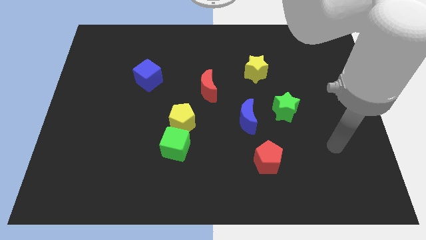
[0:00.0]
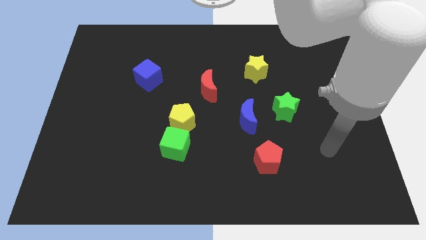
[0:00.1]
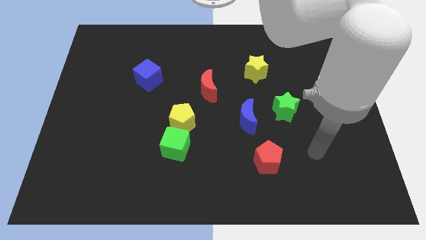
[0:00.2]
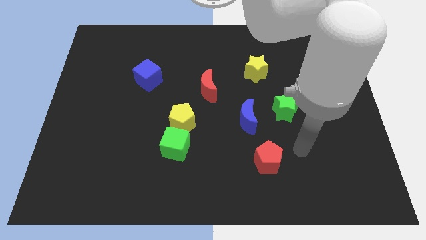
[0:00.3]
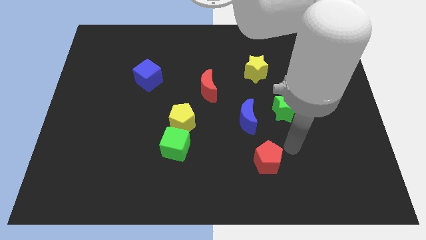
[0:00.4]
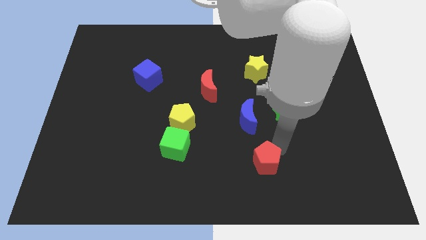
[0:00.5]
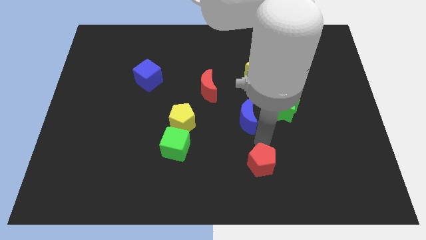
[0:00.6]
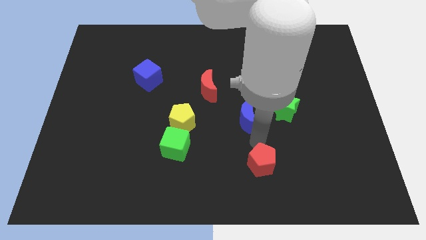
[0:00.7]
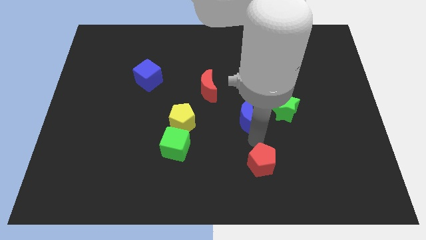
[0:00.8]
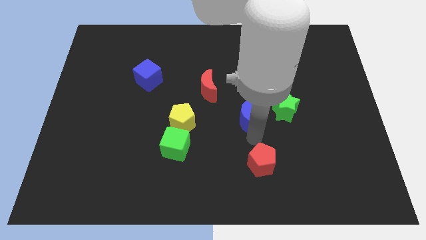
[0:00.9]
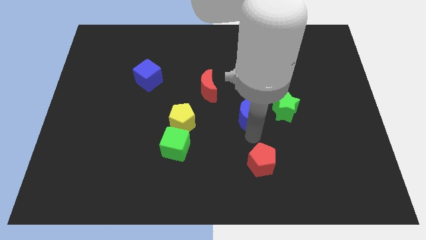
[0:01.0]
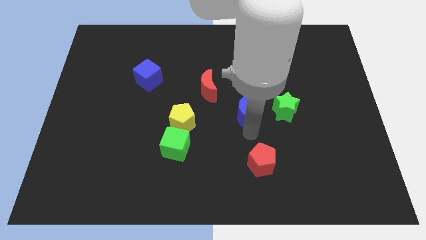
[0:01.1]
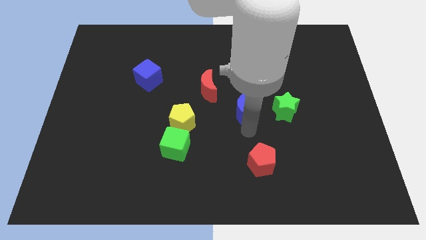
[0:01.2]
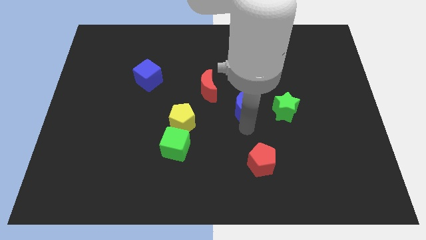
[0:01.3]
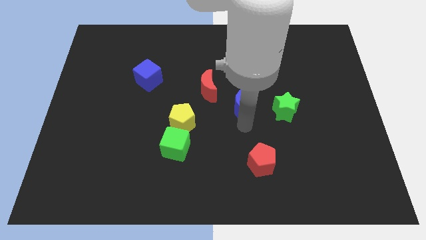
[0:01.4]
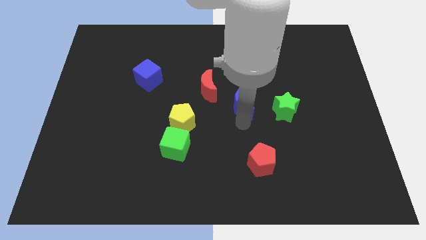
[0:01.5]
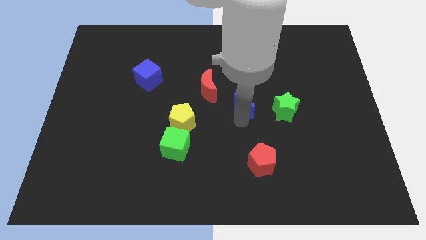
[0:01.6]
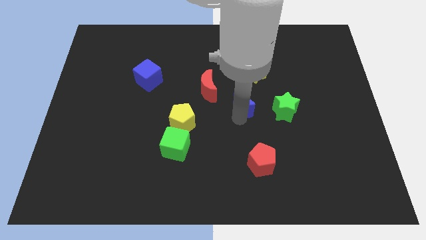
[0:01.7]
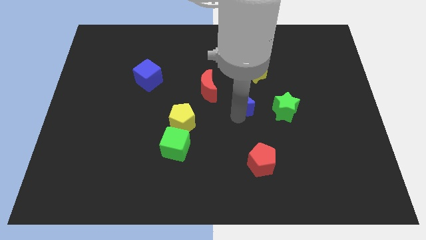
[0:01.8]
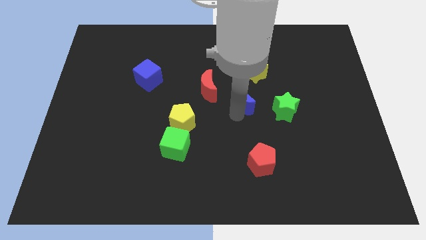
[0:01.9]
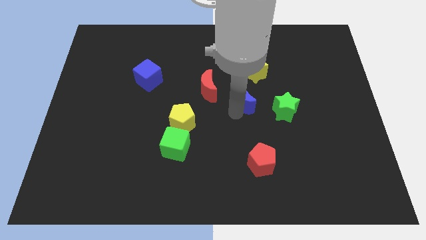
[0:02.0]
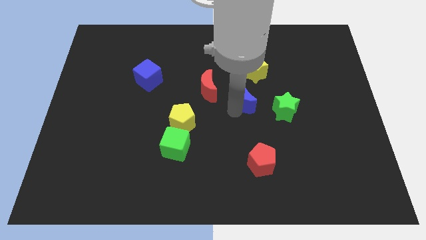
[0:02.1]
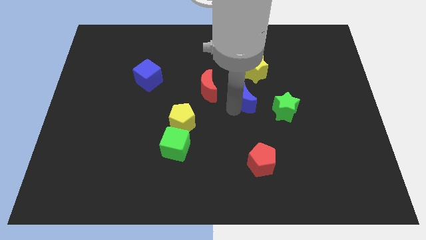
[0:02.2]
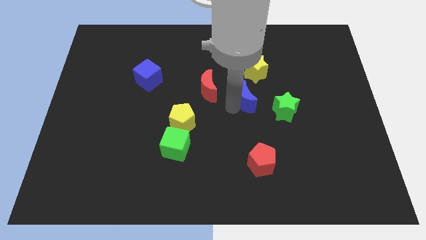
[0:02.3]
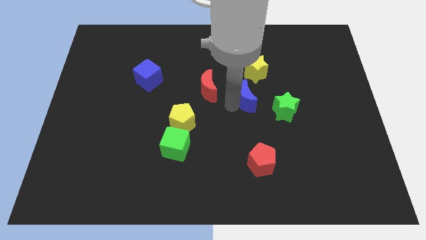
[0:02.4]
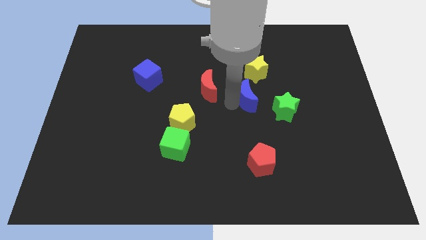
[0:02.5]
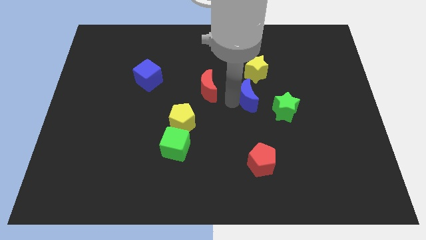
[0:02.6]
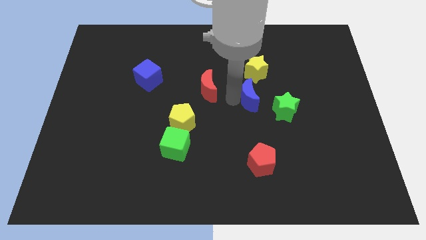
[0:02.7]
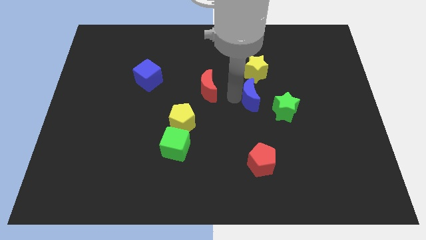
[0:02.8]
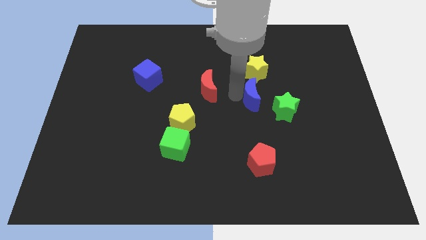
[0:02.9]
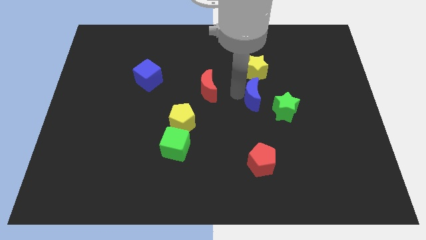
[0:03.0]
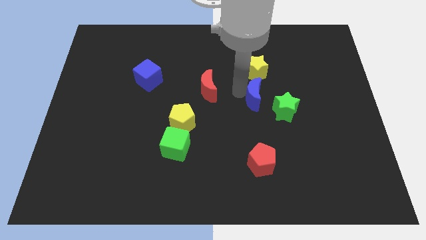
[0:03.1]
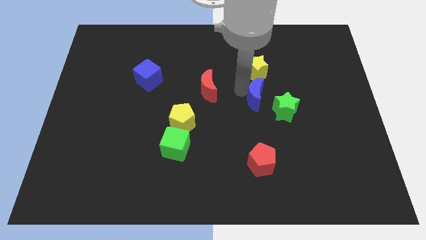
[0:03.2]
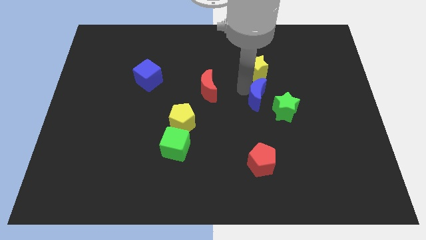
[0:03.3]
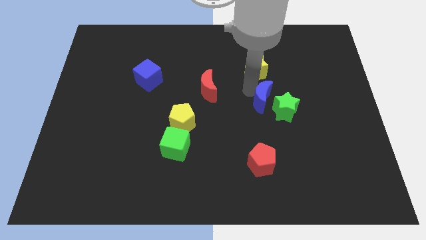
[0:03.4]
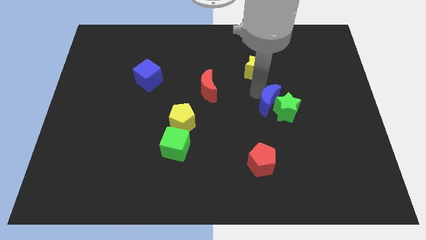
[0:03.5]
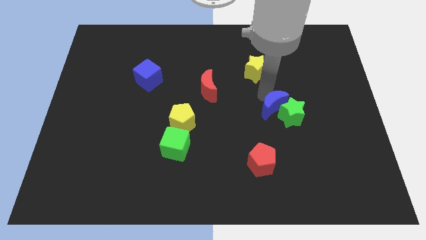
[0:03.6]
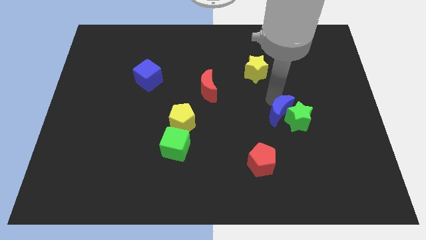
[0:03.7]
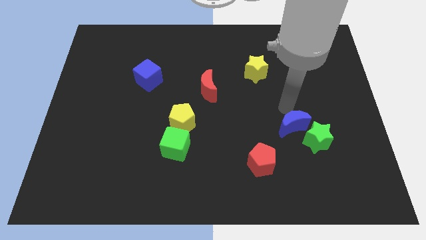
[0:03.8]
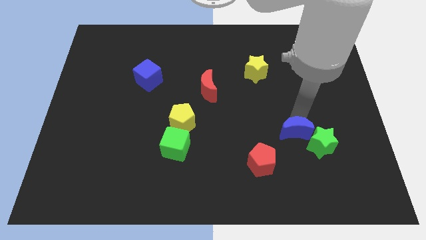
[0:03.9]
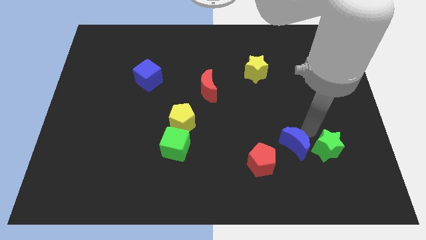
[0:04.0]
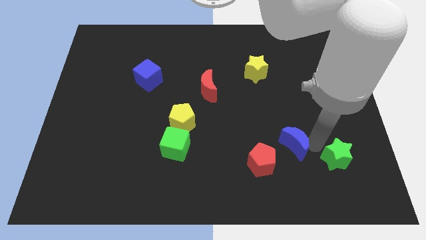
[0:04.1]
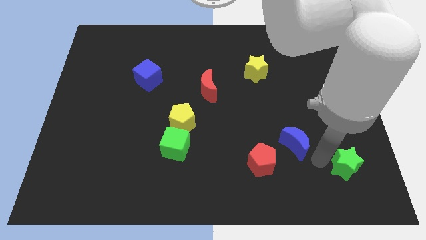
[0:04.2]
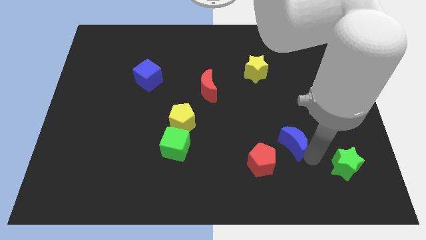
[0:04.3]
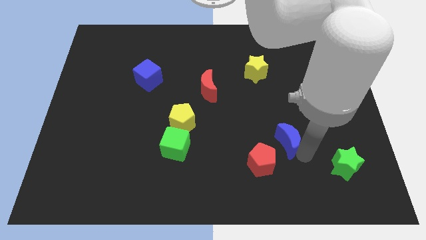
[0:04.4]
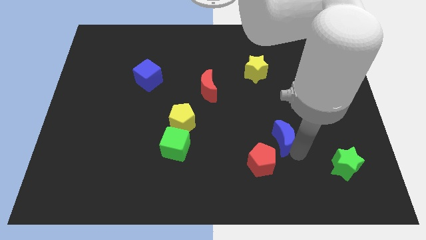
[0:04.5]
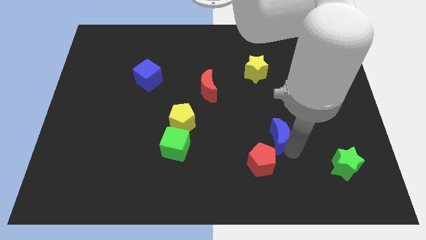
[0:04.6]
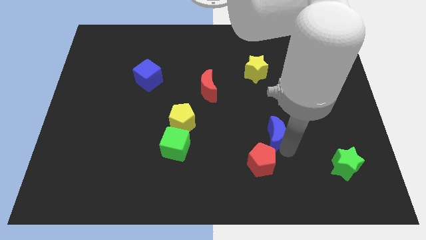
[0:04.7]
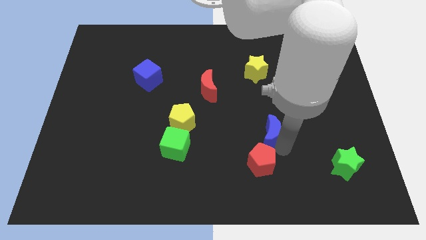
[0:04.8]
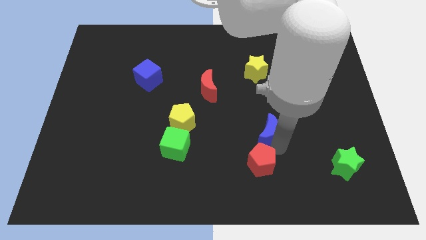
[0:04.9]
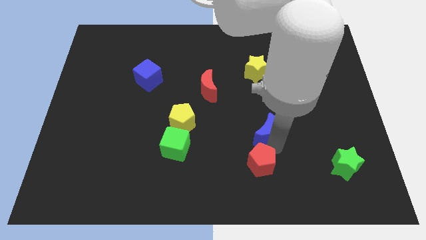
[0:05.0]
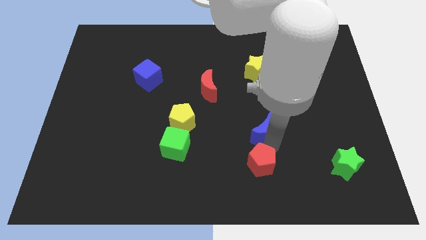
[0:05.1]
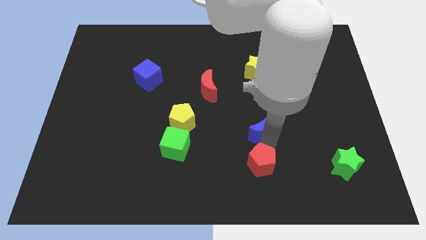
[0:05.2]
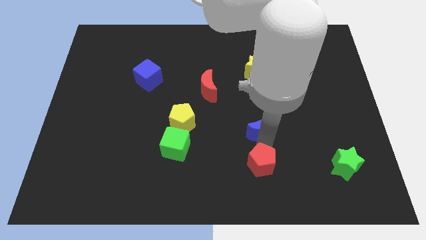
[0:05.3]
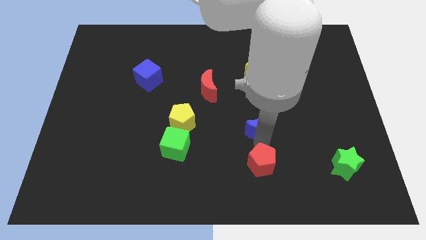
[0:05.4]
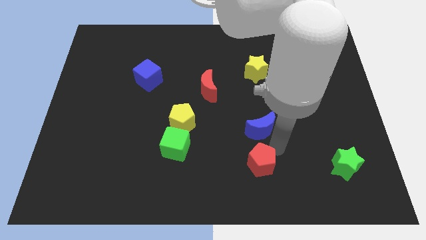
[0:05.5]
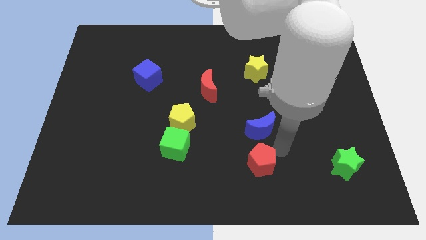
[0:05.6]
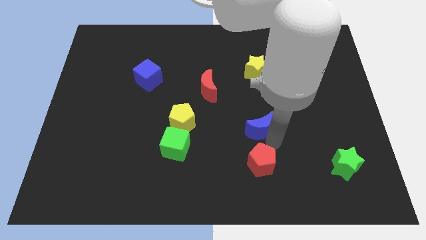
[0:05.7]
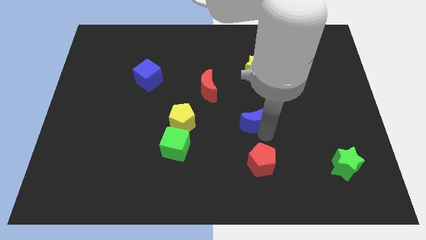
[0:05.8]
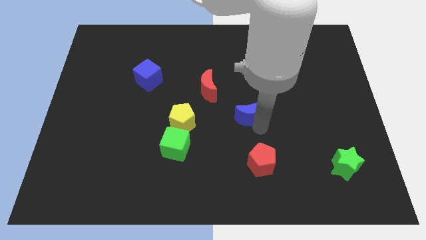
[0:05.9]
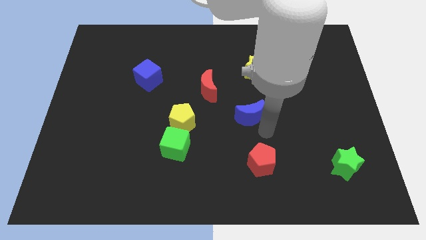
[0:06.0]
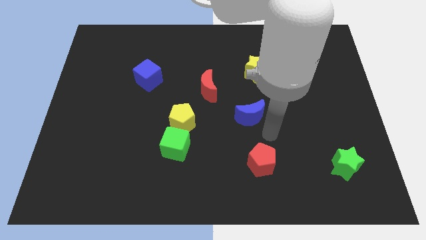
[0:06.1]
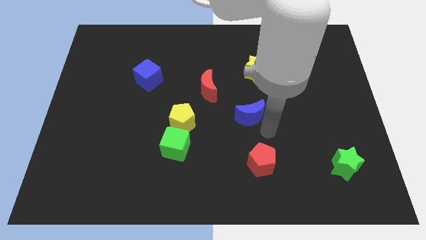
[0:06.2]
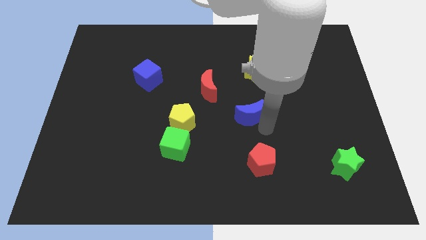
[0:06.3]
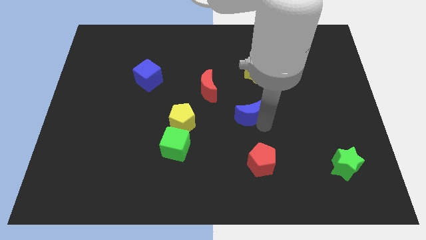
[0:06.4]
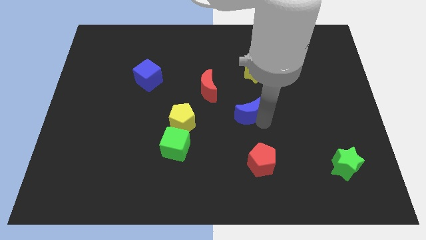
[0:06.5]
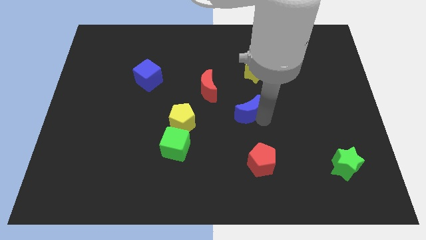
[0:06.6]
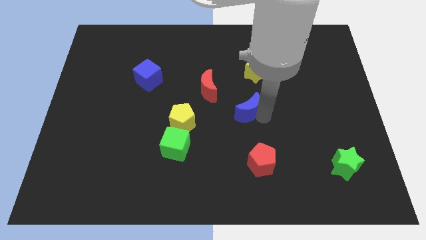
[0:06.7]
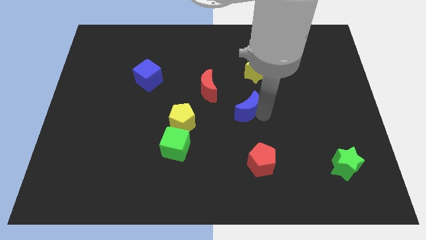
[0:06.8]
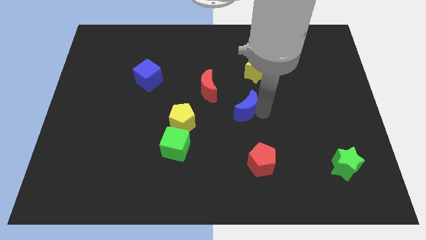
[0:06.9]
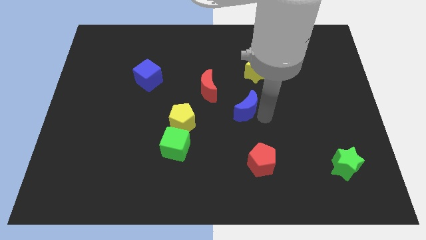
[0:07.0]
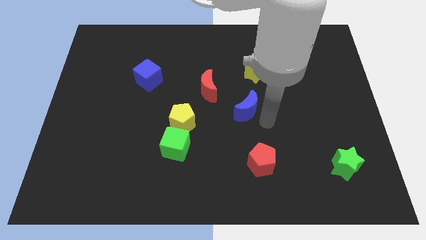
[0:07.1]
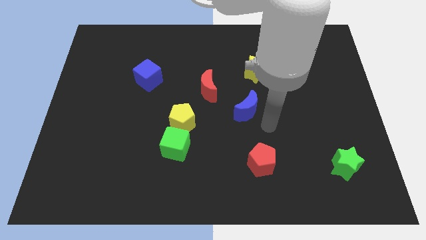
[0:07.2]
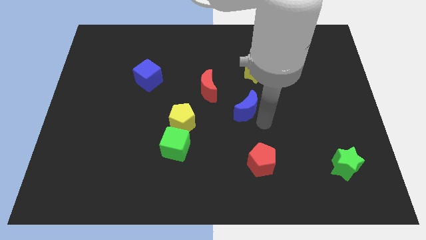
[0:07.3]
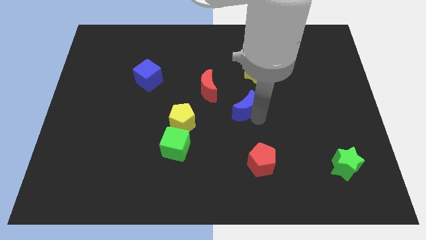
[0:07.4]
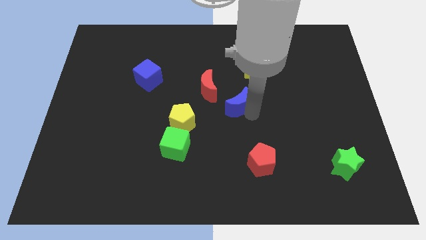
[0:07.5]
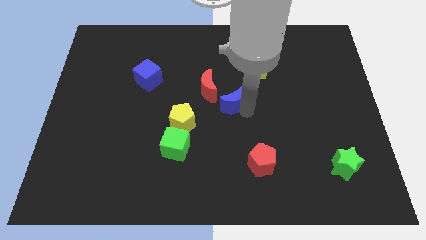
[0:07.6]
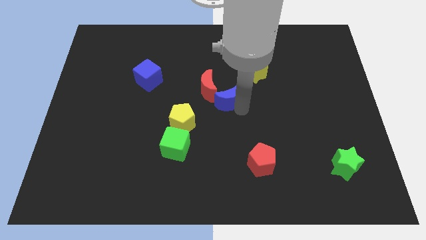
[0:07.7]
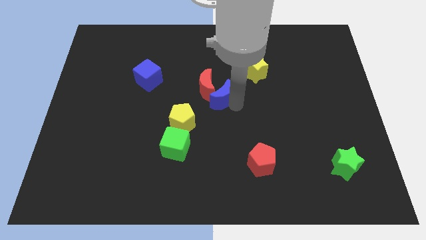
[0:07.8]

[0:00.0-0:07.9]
move the blue moon close to the red moon
